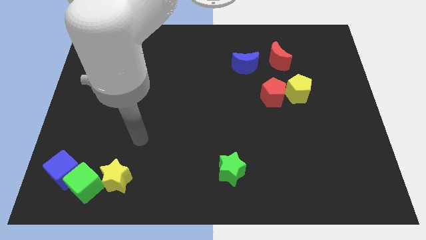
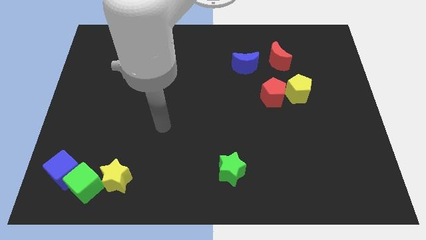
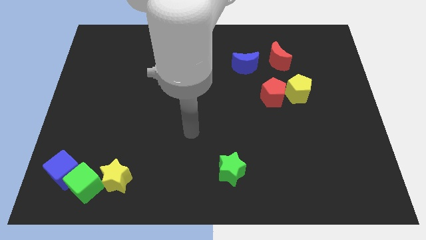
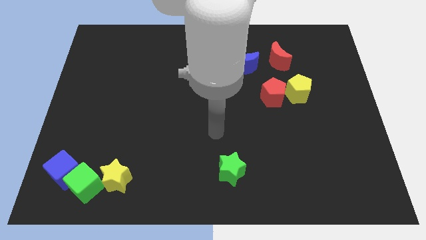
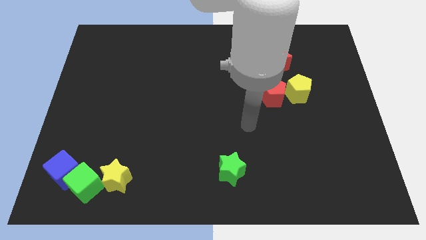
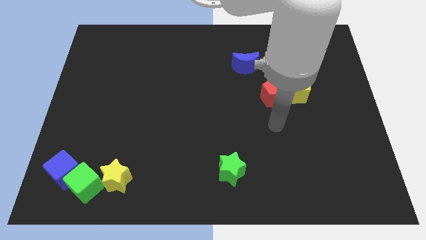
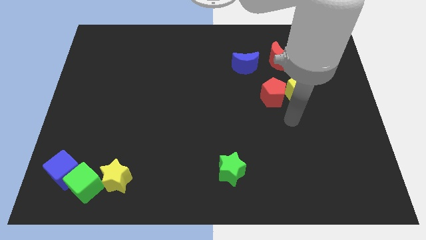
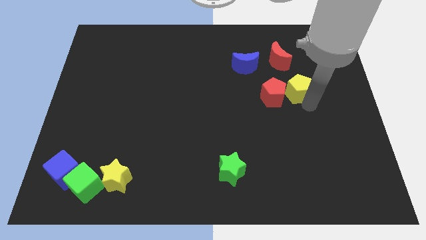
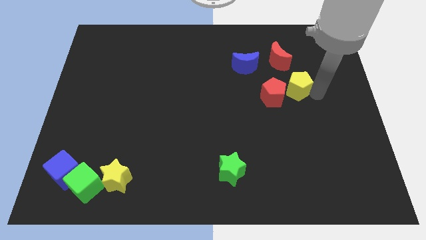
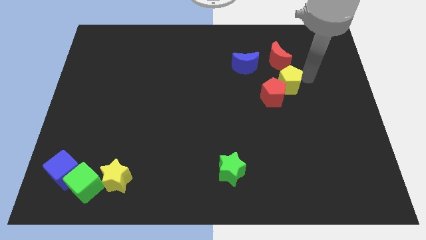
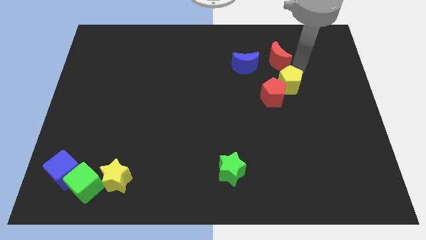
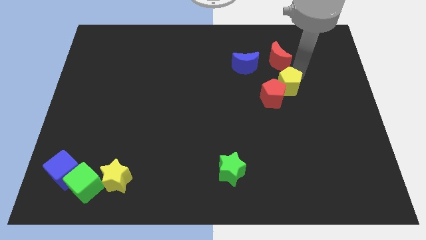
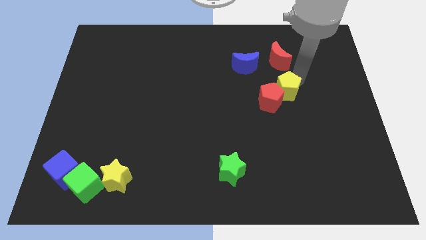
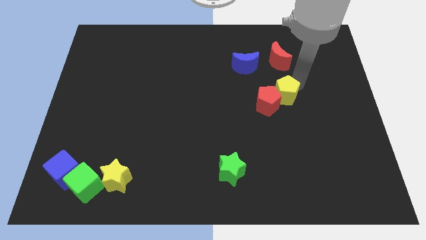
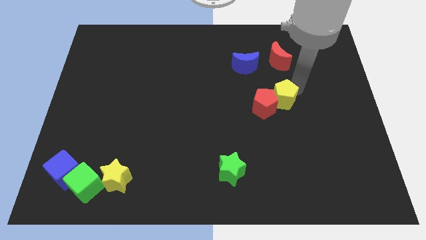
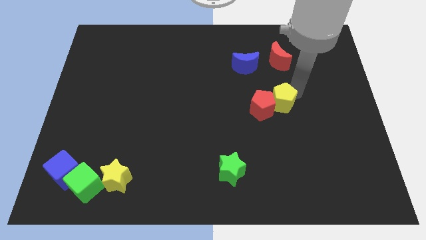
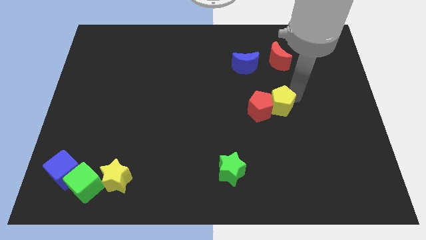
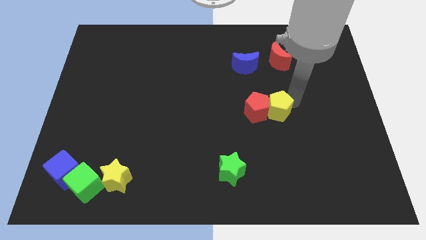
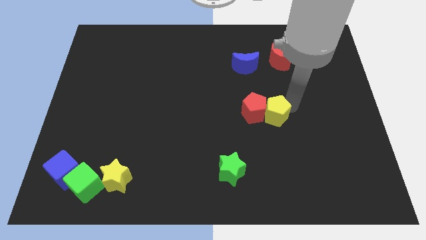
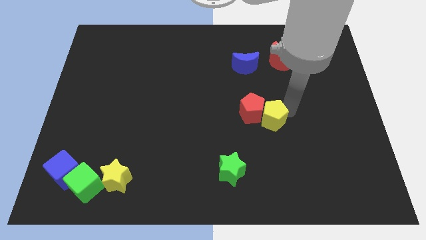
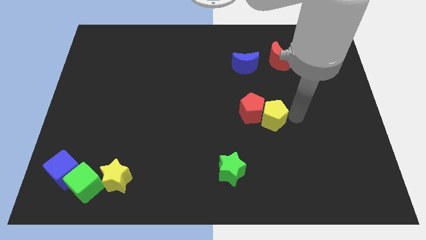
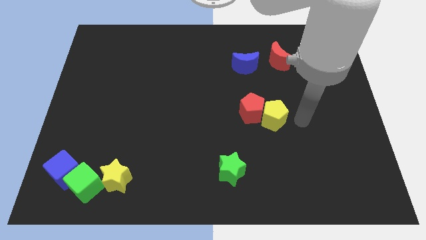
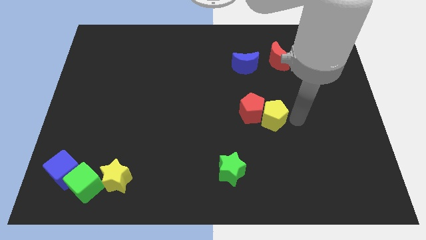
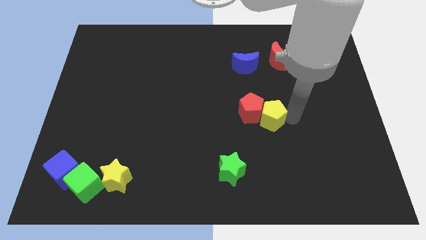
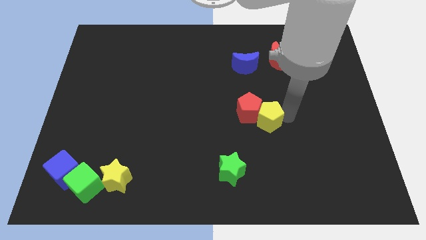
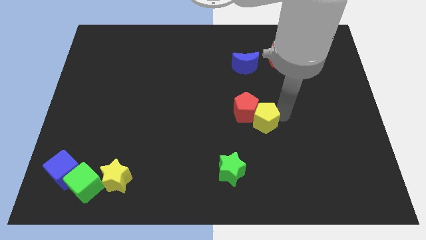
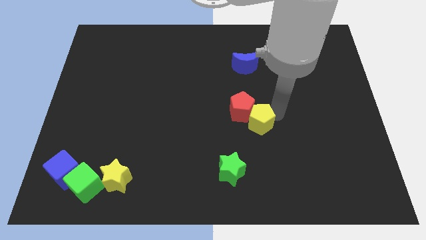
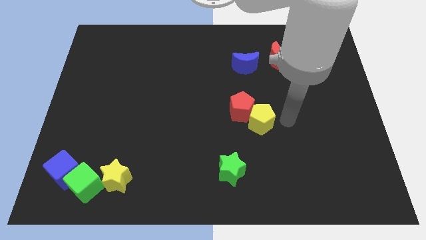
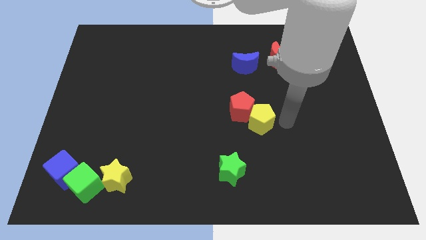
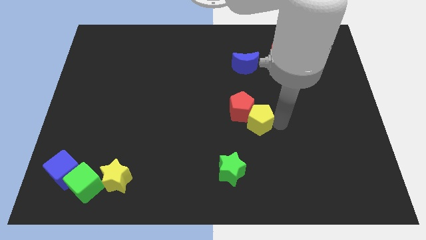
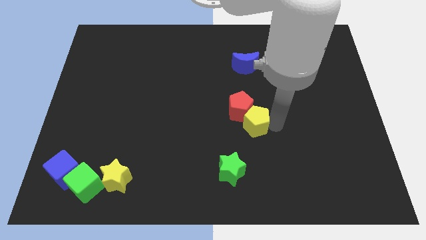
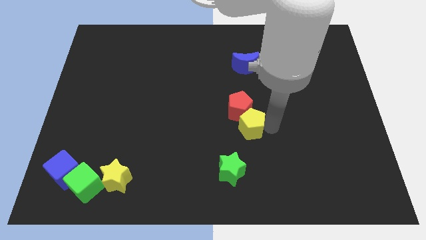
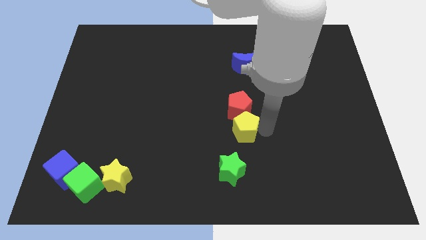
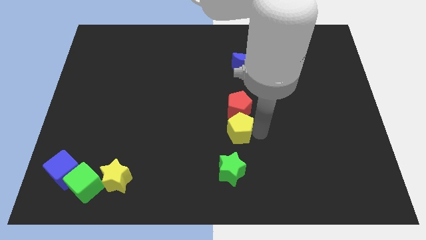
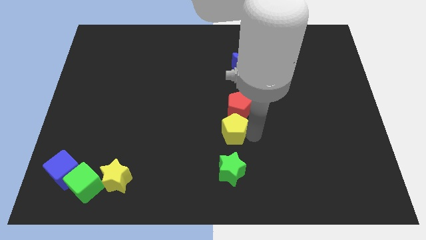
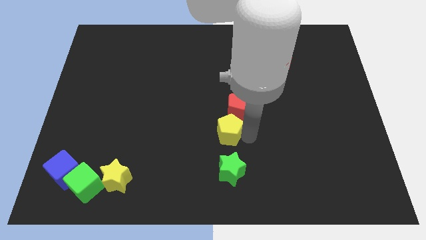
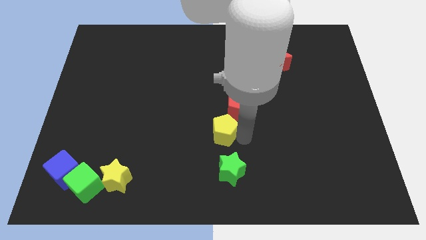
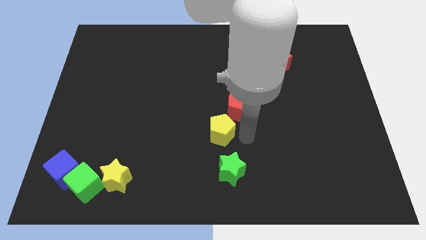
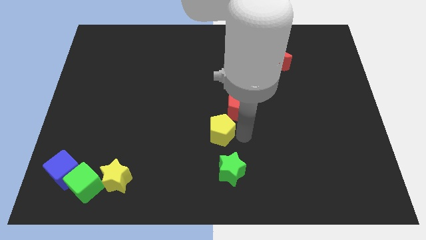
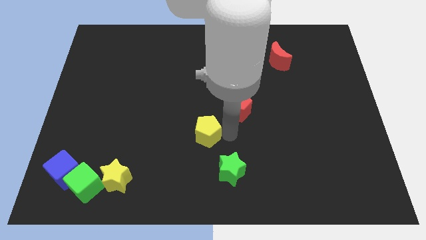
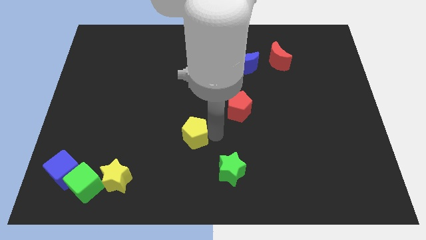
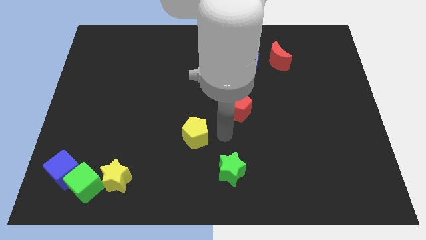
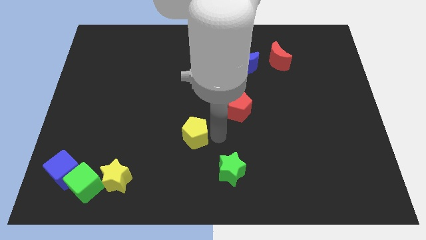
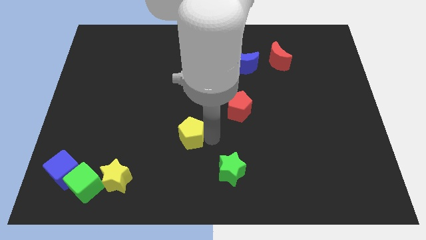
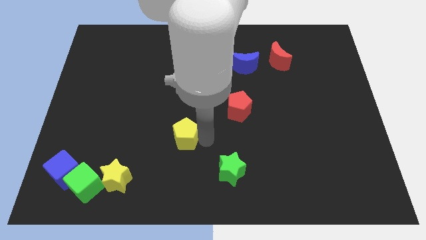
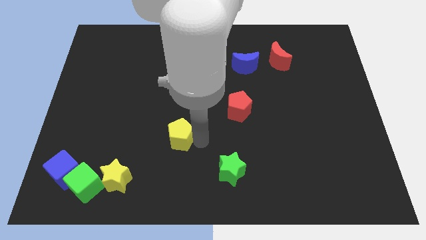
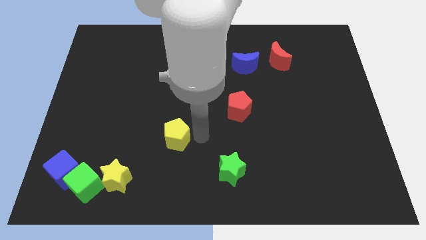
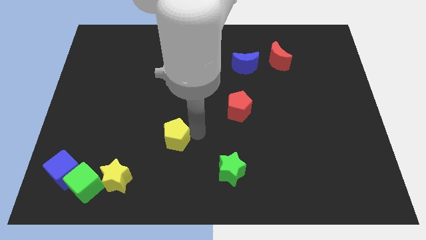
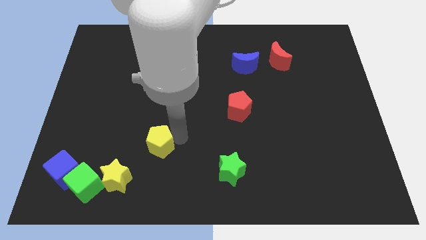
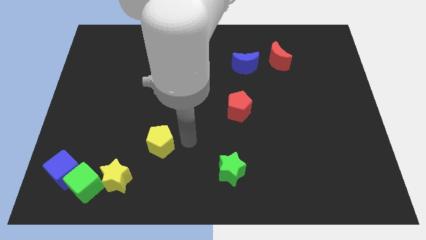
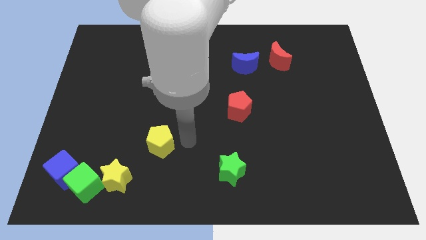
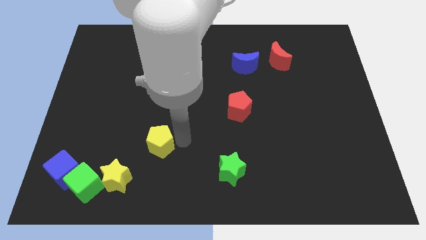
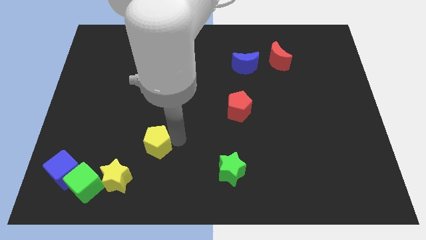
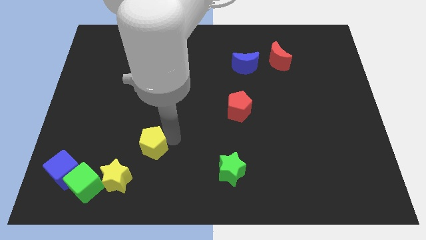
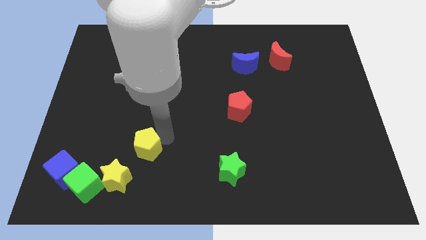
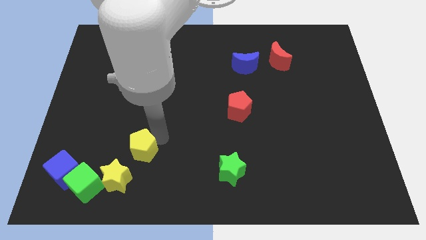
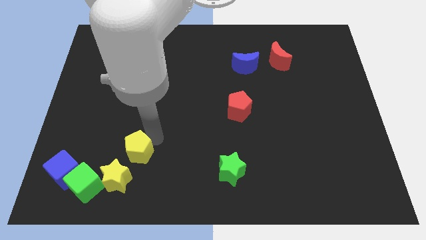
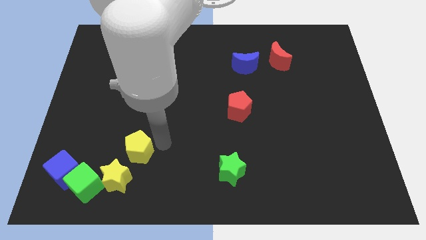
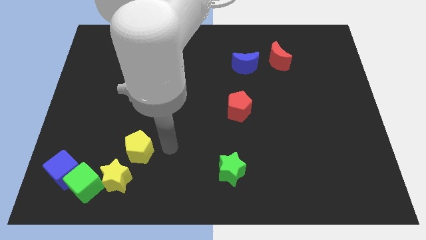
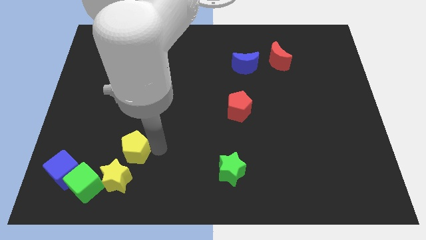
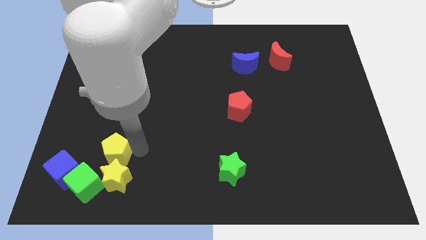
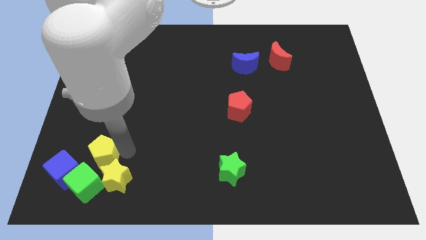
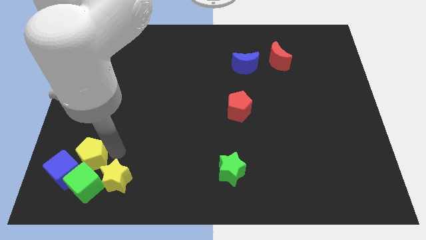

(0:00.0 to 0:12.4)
put the yellow pentagon next to the blue cube

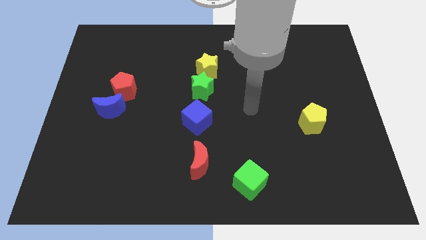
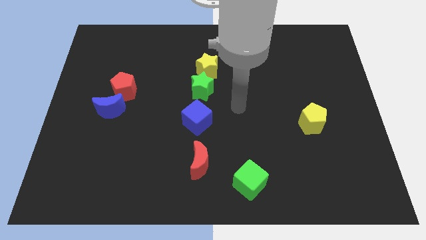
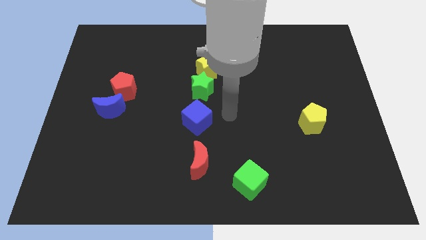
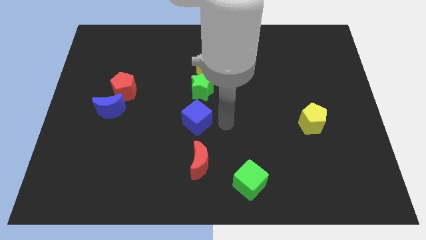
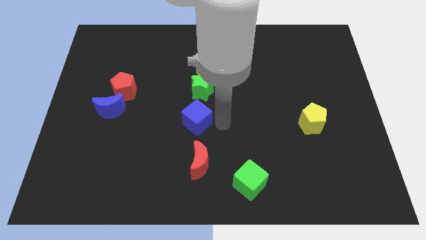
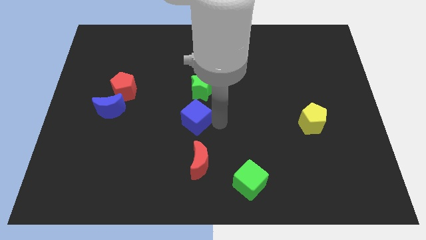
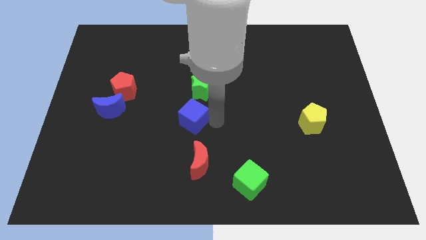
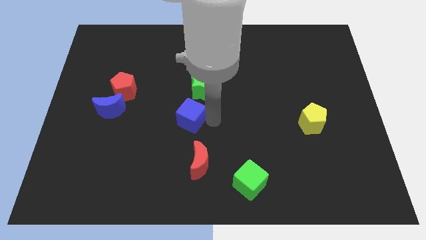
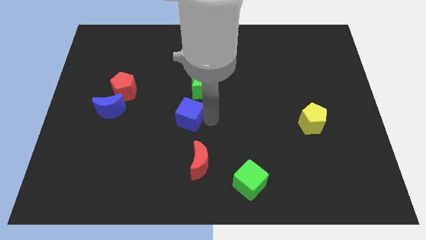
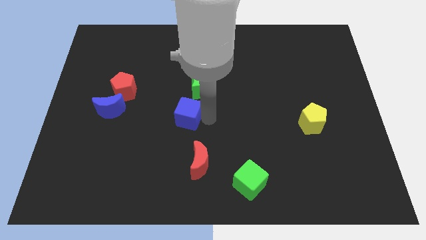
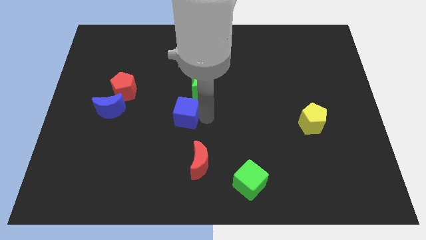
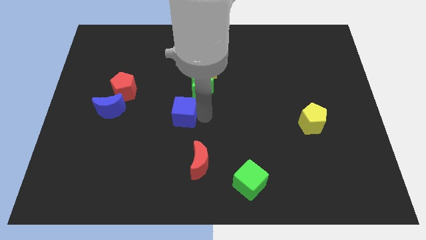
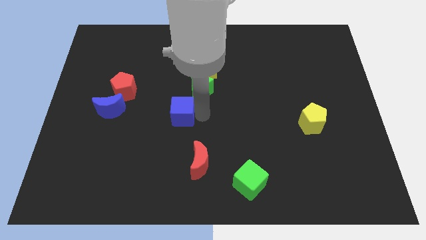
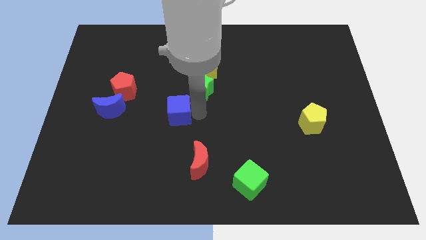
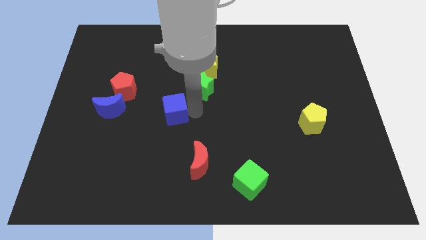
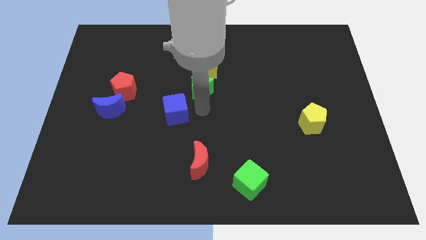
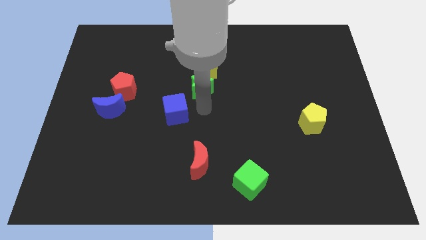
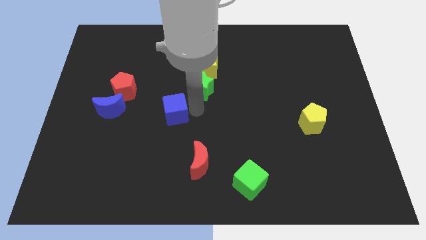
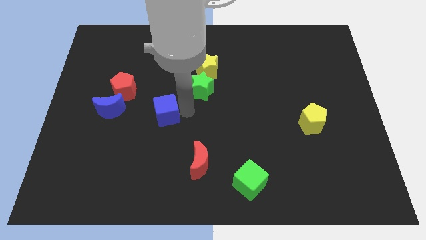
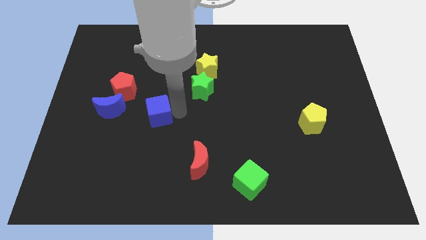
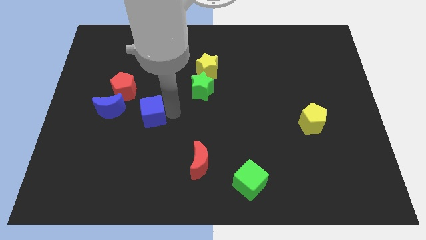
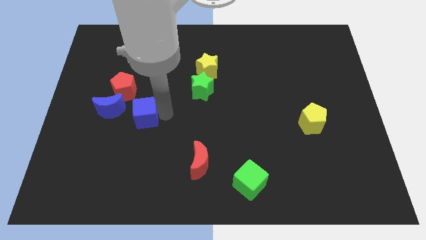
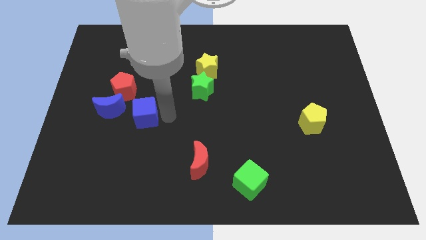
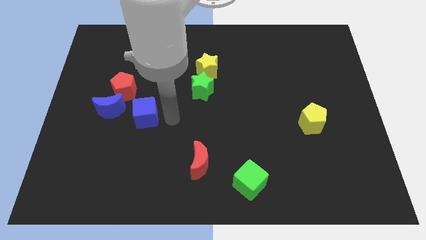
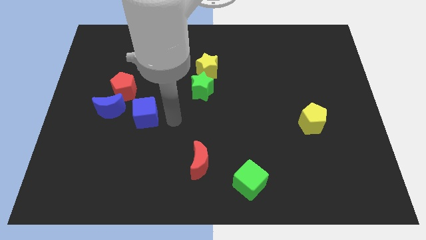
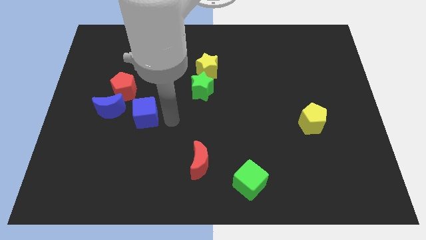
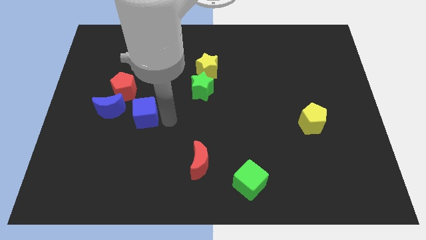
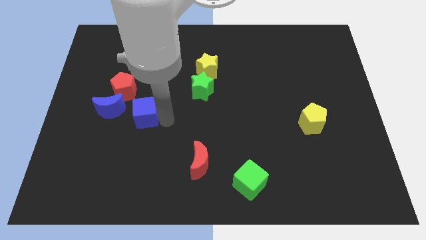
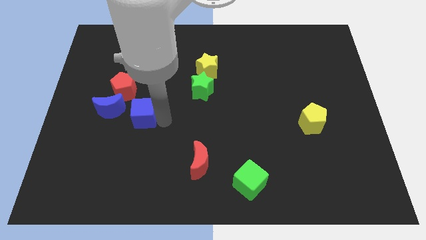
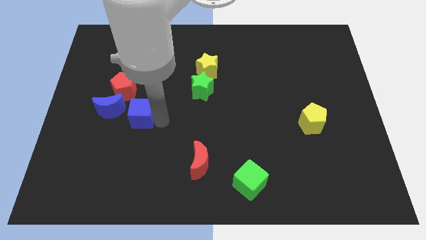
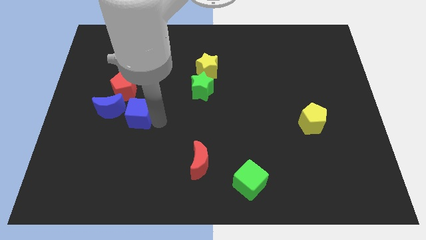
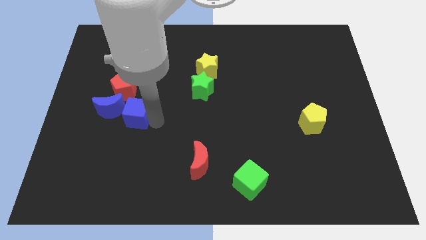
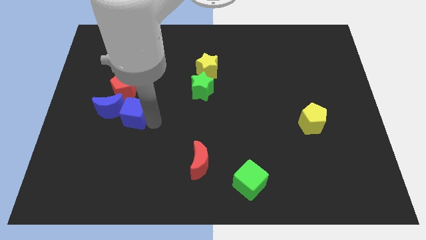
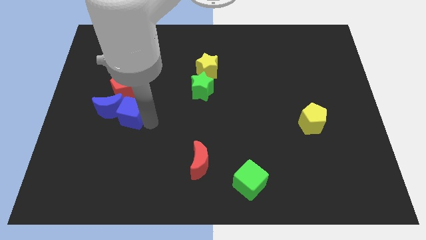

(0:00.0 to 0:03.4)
push the blue cube to the blue moon
